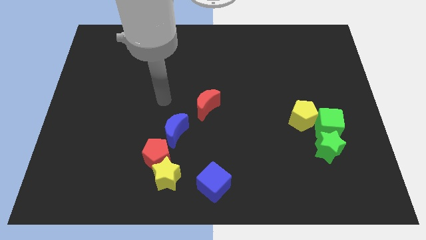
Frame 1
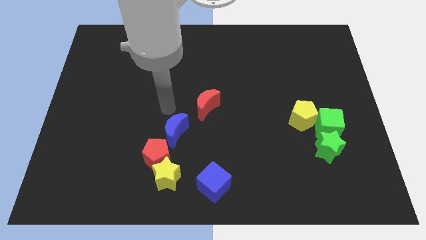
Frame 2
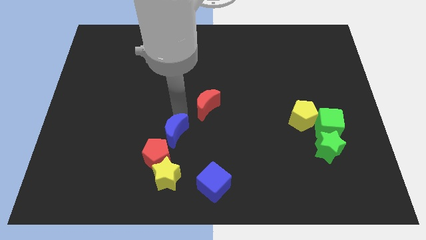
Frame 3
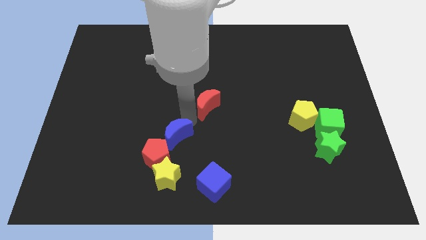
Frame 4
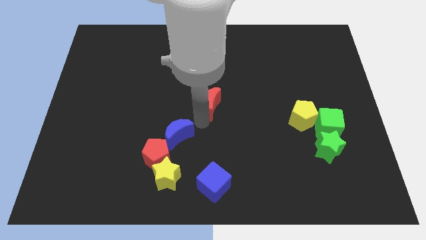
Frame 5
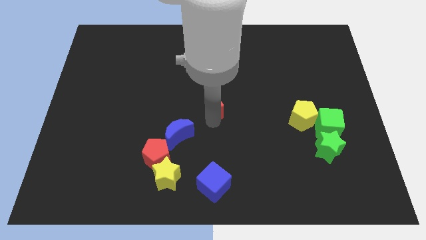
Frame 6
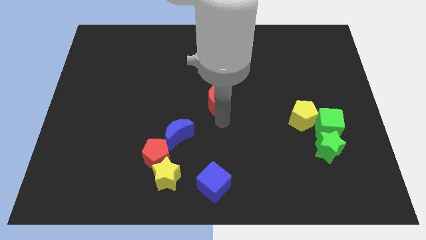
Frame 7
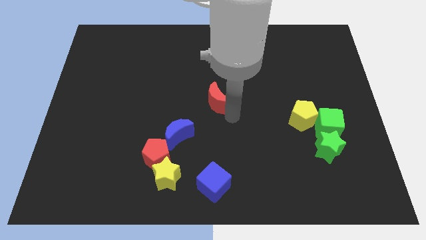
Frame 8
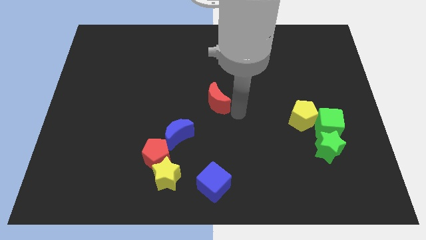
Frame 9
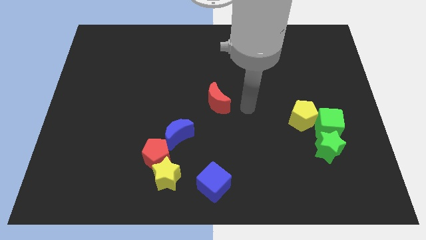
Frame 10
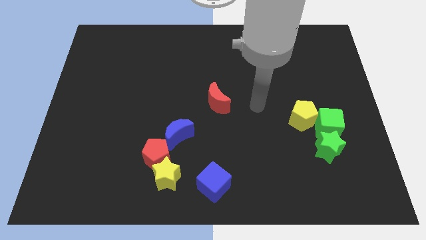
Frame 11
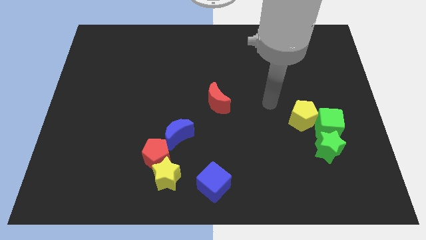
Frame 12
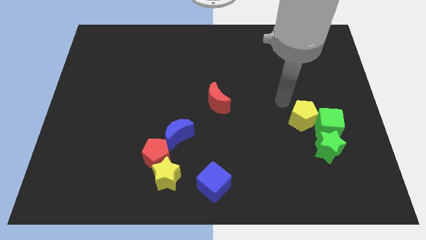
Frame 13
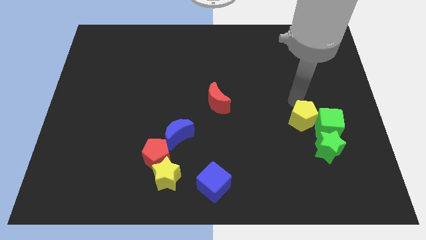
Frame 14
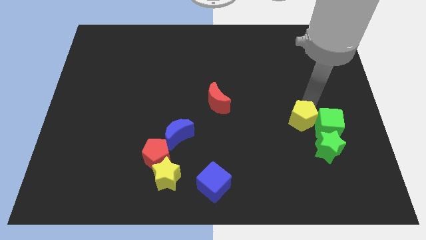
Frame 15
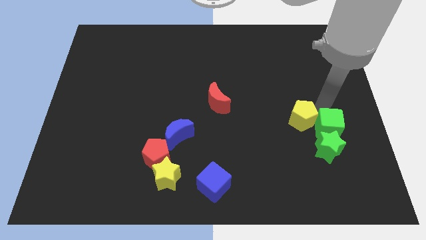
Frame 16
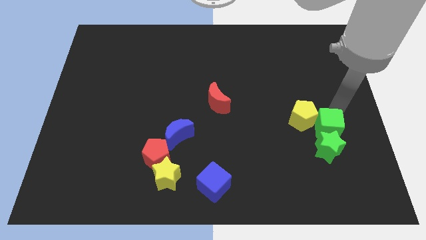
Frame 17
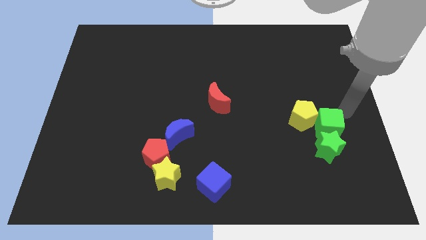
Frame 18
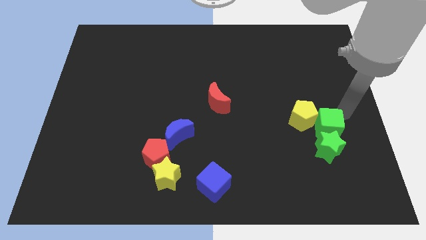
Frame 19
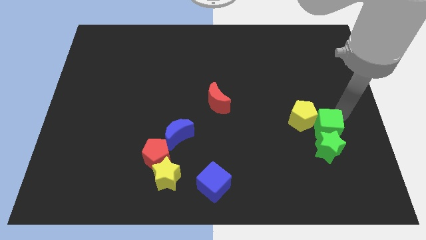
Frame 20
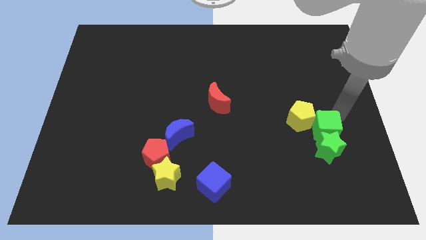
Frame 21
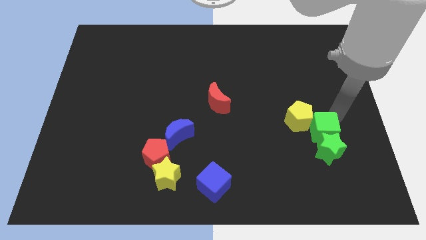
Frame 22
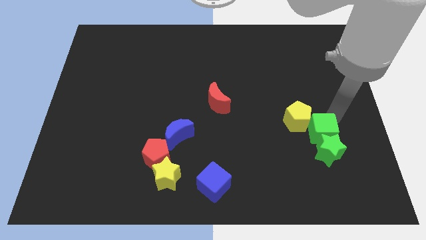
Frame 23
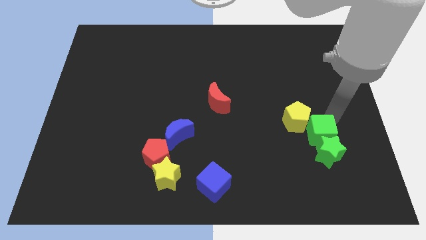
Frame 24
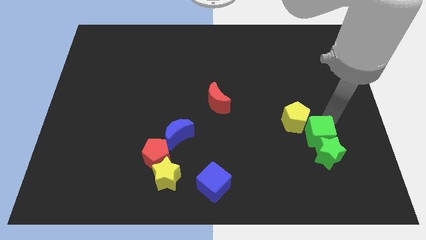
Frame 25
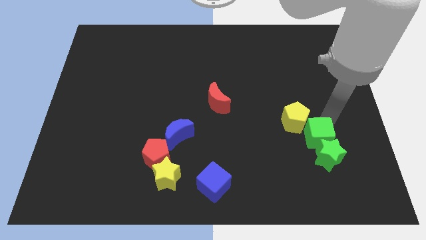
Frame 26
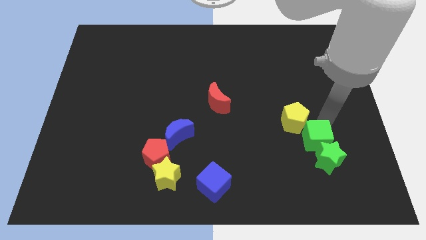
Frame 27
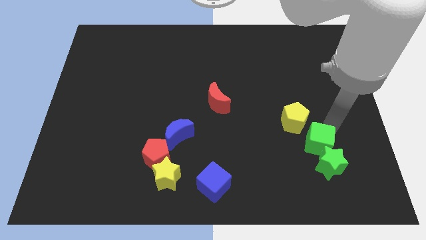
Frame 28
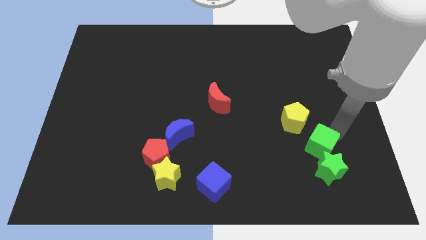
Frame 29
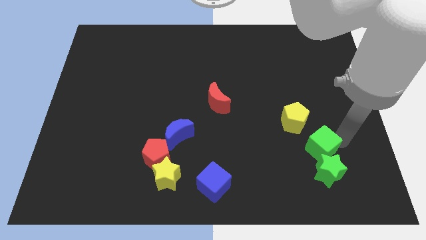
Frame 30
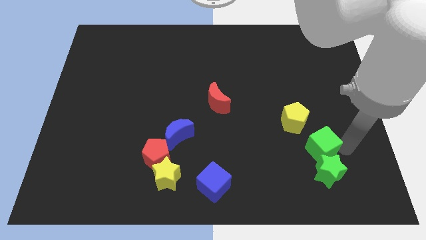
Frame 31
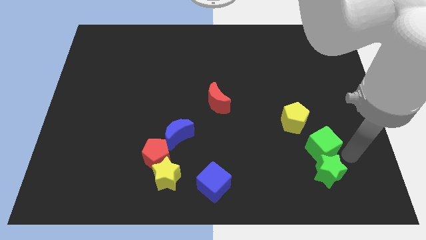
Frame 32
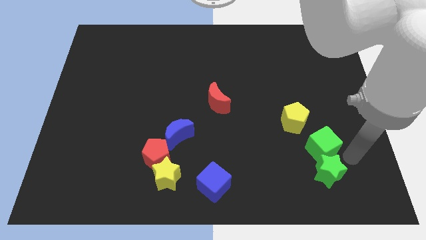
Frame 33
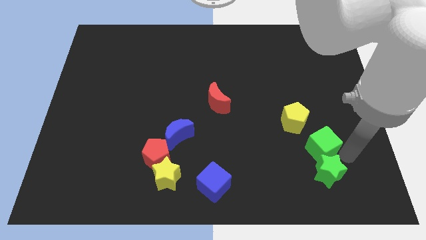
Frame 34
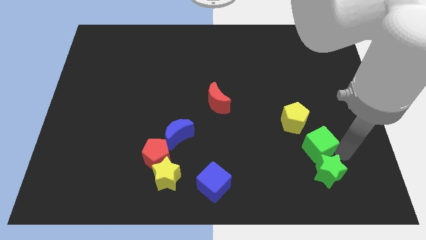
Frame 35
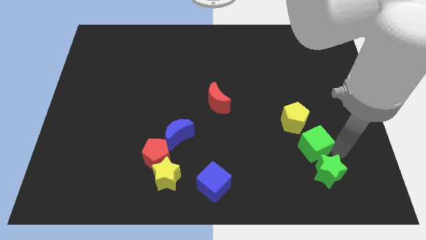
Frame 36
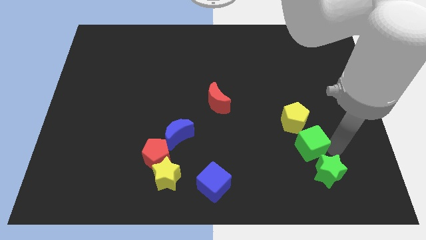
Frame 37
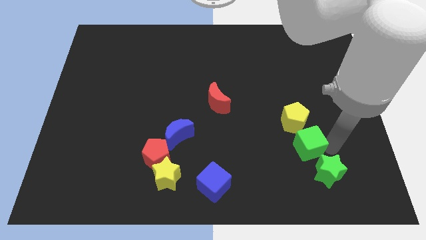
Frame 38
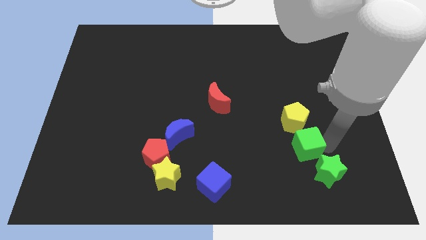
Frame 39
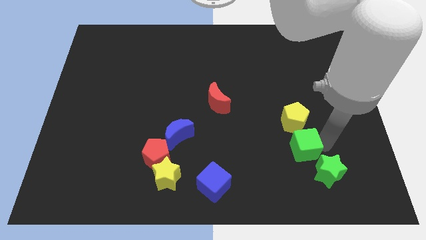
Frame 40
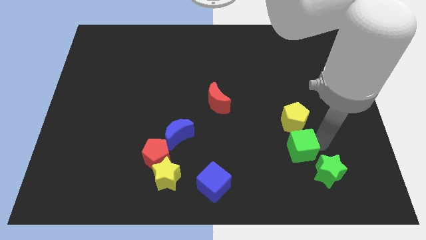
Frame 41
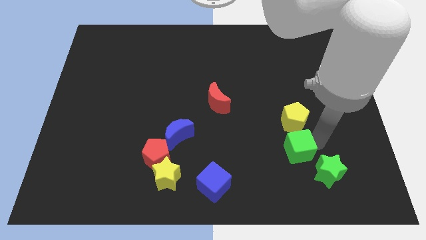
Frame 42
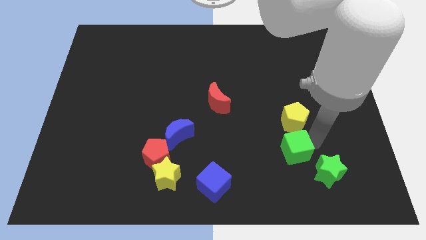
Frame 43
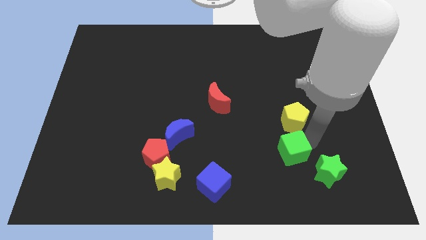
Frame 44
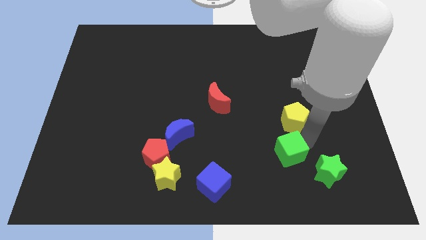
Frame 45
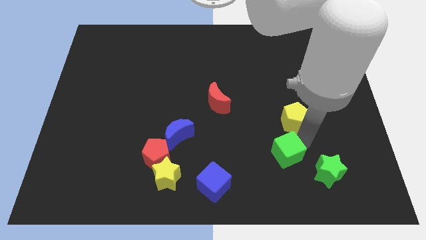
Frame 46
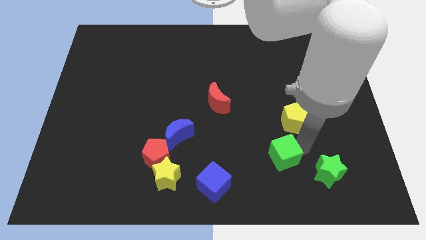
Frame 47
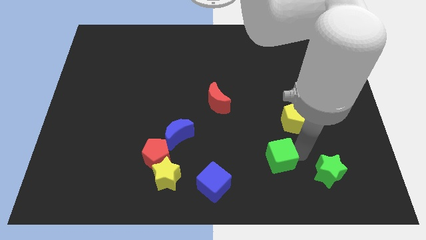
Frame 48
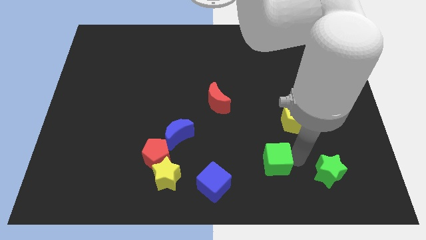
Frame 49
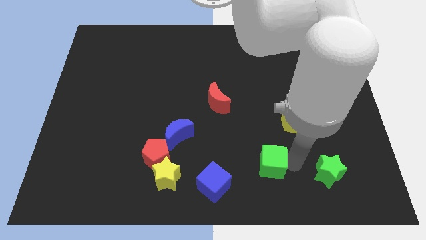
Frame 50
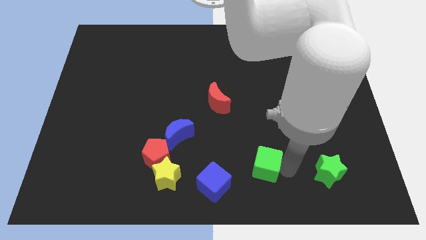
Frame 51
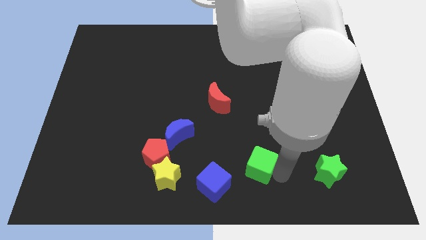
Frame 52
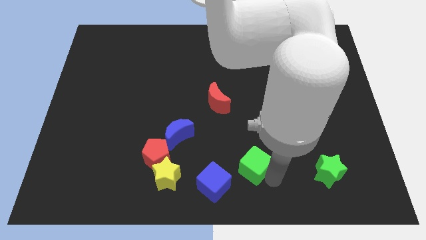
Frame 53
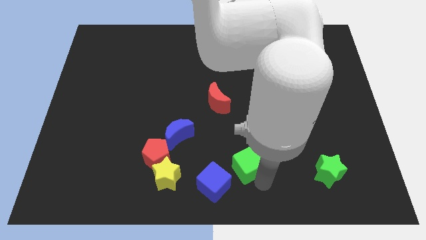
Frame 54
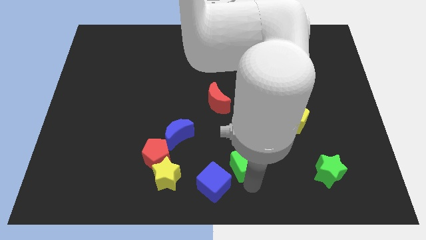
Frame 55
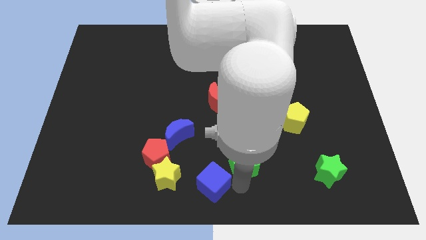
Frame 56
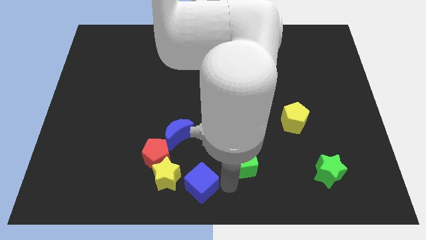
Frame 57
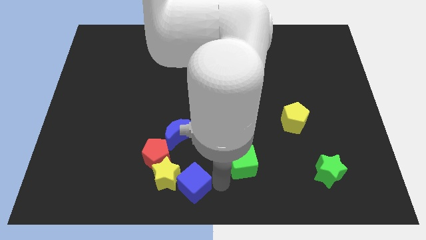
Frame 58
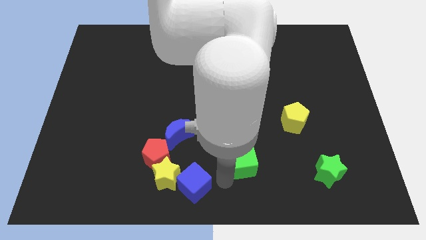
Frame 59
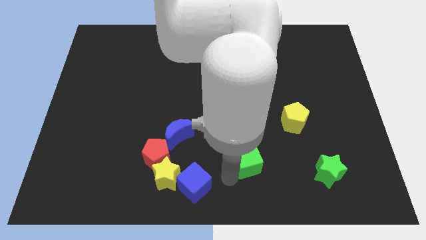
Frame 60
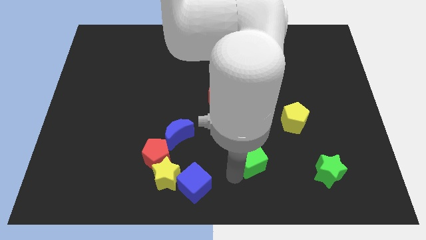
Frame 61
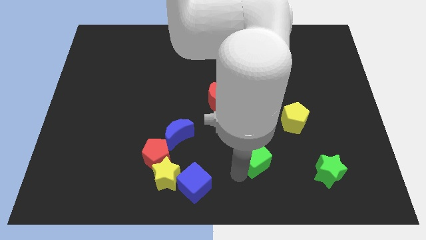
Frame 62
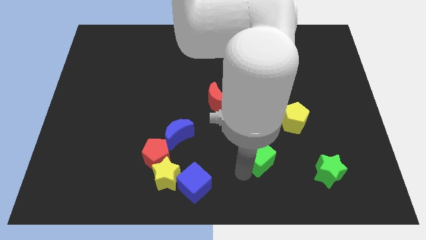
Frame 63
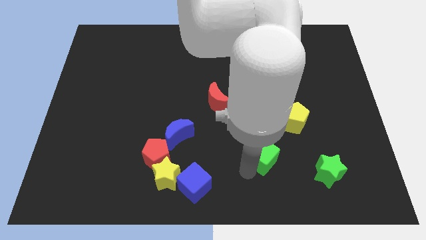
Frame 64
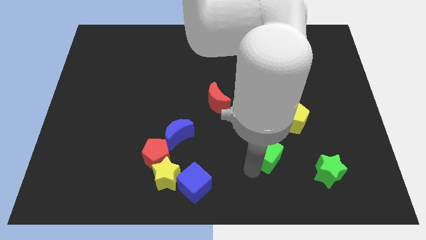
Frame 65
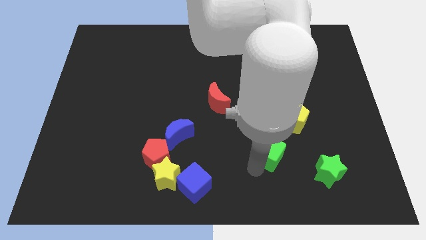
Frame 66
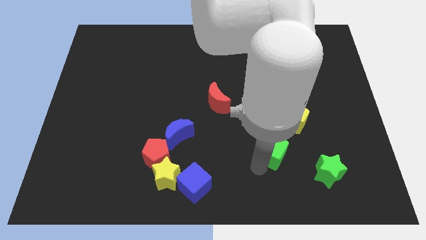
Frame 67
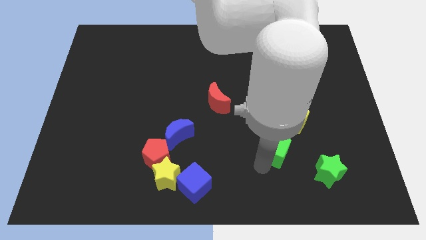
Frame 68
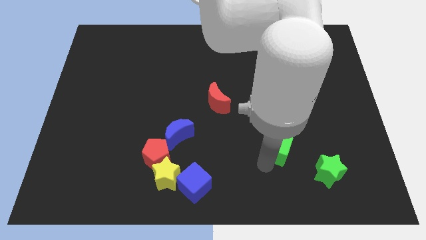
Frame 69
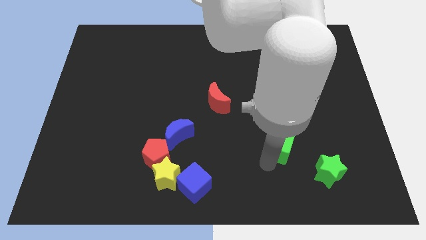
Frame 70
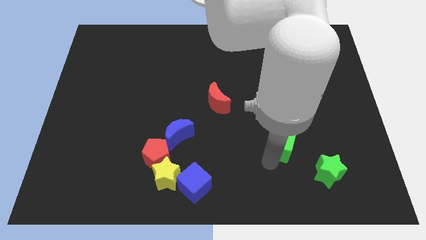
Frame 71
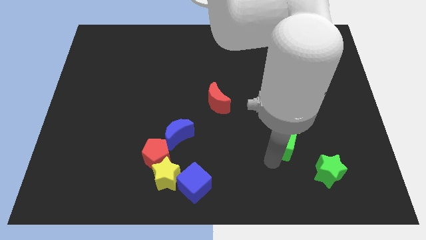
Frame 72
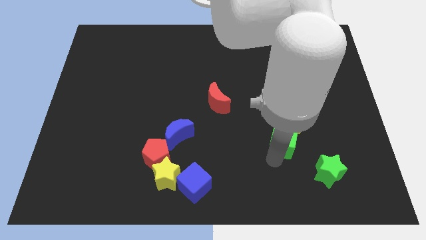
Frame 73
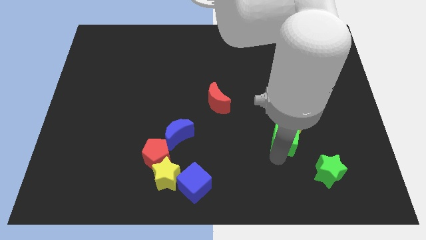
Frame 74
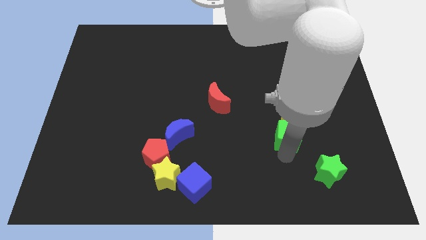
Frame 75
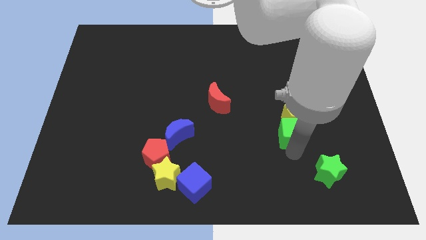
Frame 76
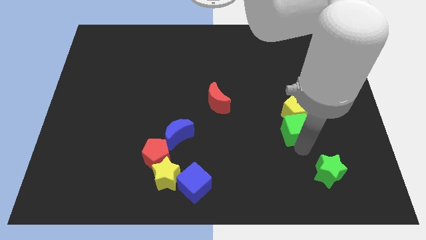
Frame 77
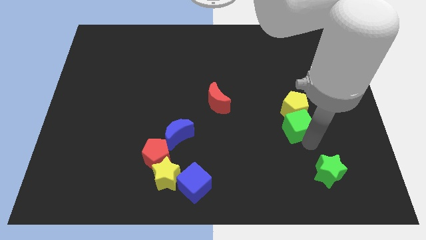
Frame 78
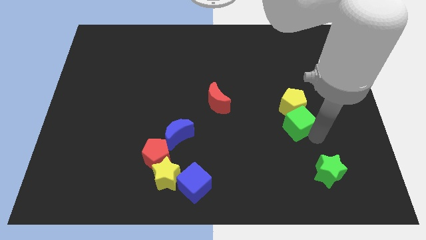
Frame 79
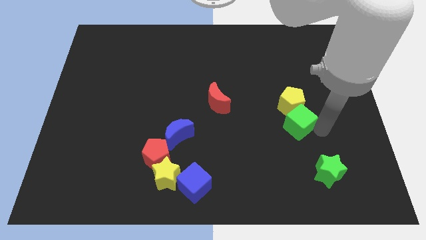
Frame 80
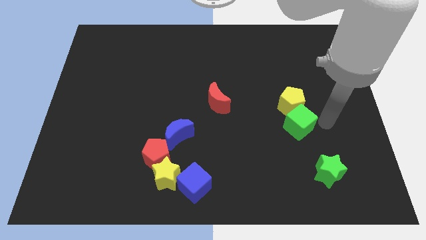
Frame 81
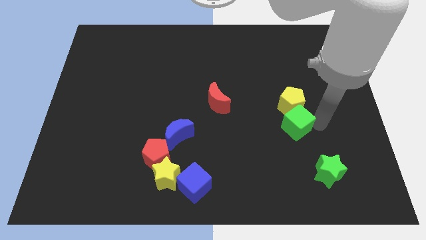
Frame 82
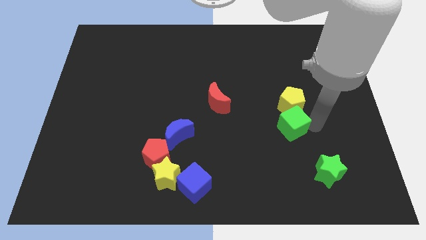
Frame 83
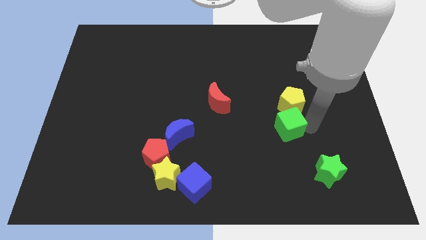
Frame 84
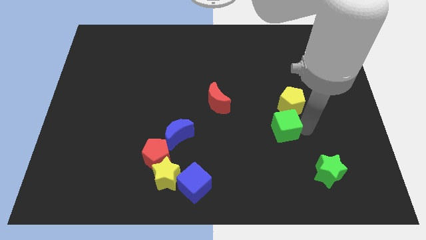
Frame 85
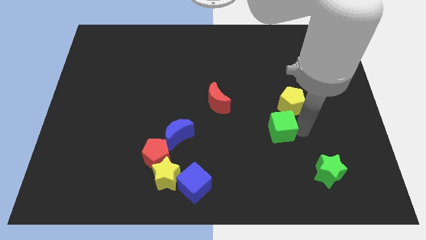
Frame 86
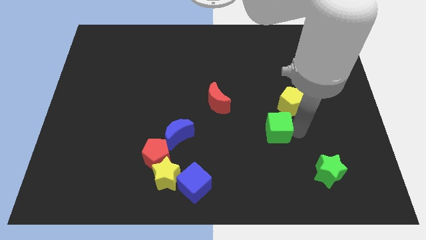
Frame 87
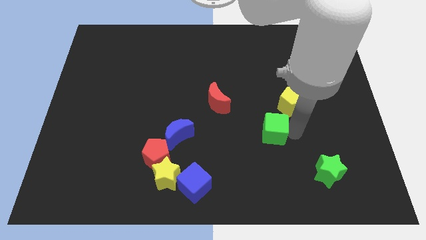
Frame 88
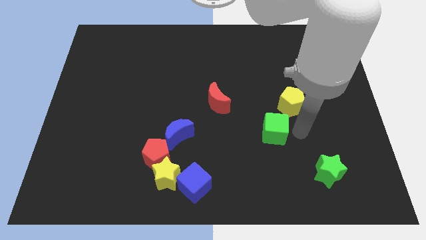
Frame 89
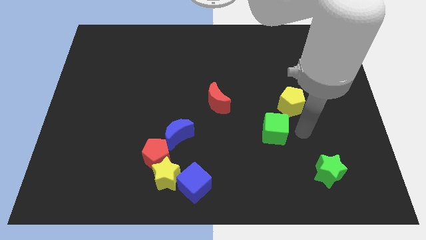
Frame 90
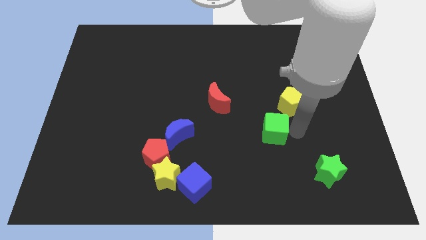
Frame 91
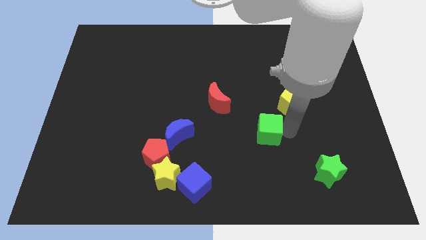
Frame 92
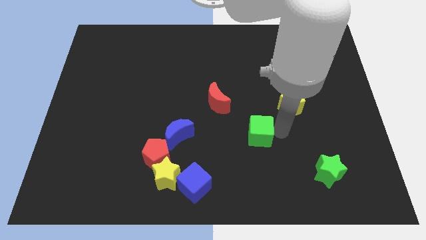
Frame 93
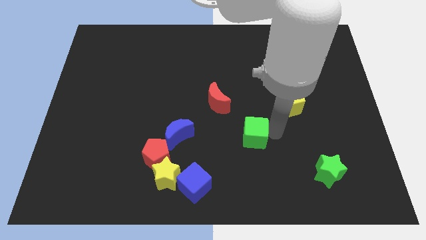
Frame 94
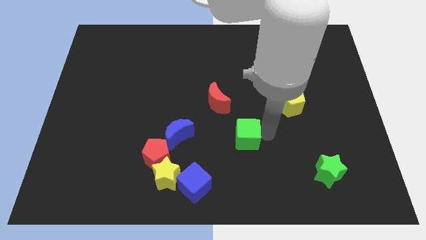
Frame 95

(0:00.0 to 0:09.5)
slide the green cube just right of the blue moon
